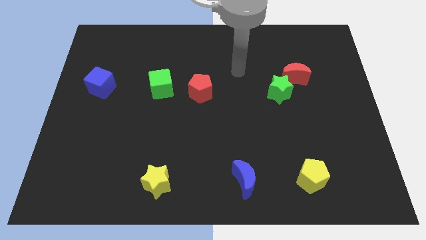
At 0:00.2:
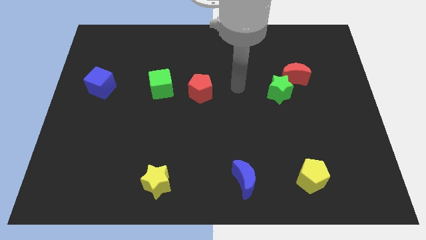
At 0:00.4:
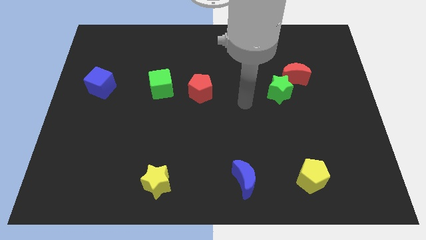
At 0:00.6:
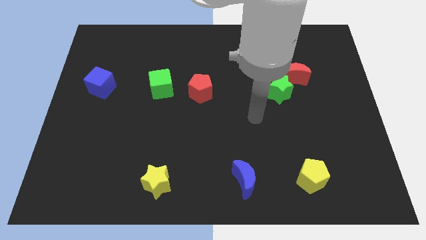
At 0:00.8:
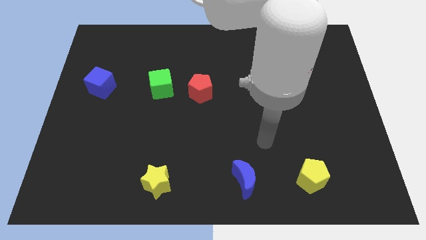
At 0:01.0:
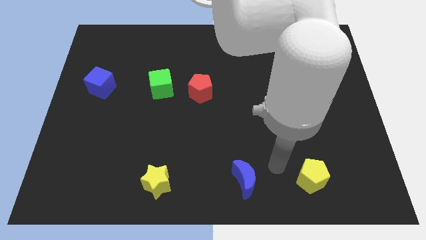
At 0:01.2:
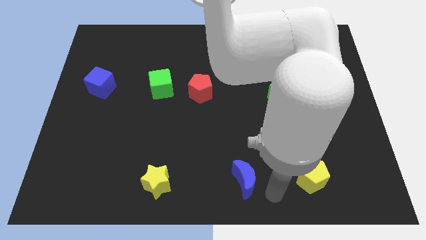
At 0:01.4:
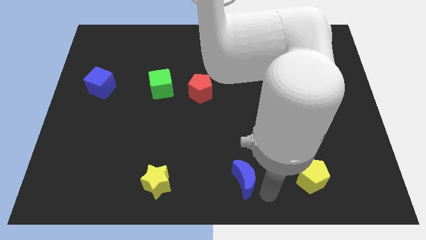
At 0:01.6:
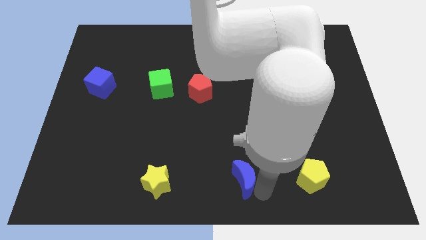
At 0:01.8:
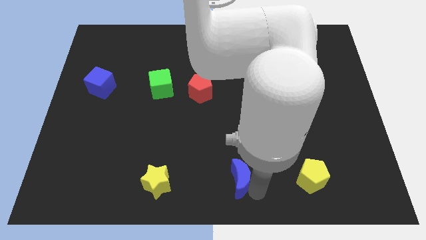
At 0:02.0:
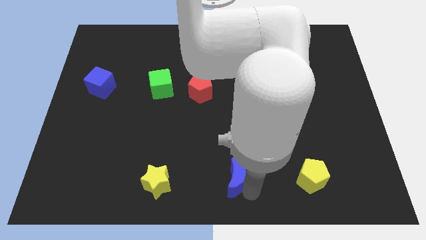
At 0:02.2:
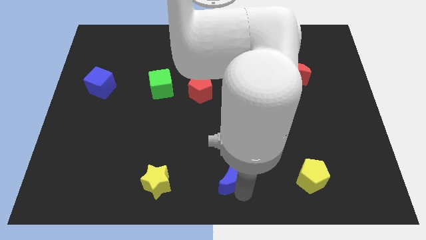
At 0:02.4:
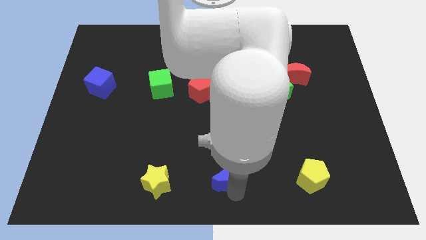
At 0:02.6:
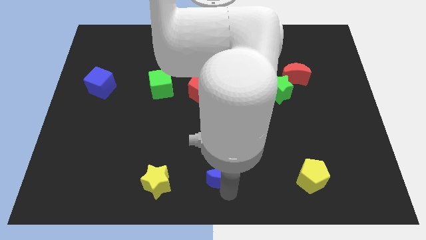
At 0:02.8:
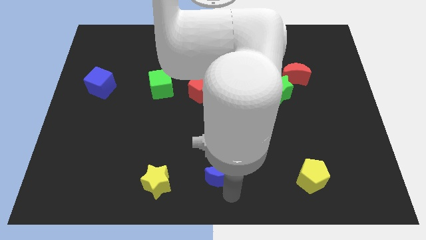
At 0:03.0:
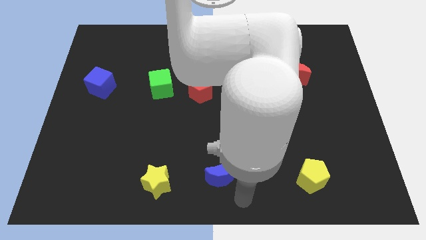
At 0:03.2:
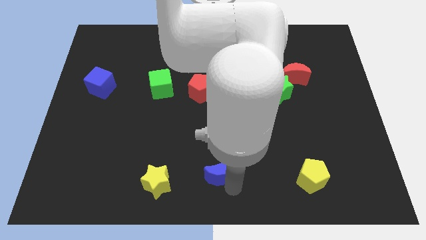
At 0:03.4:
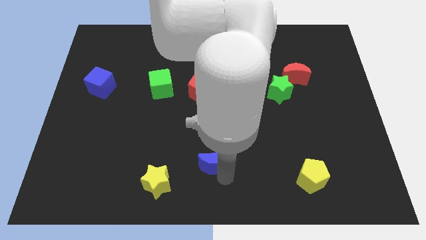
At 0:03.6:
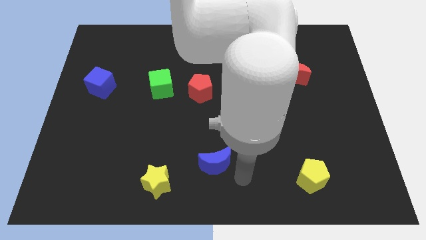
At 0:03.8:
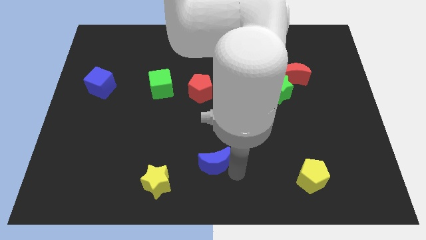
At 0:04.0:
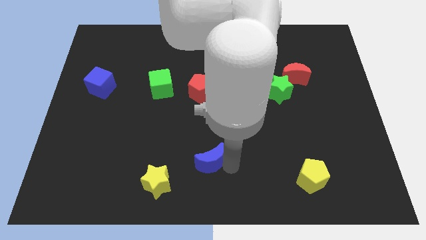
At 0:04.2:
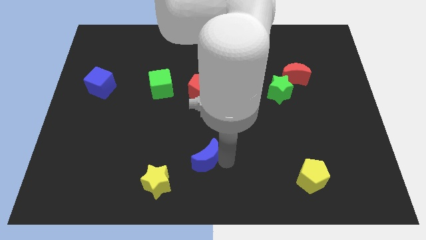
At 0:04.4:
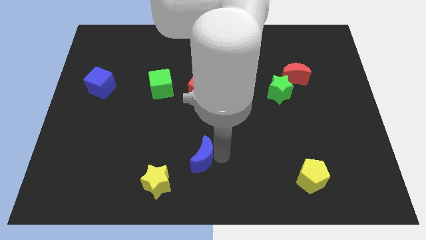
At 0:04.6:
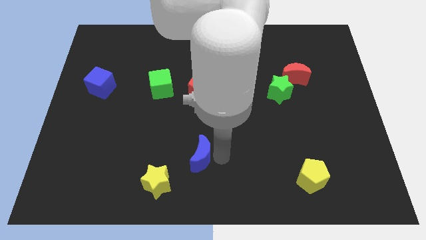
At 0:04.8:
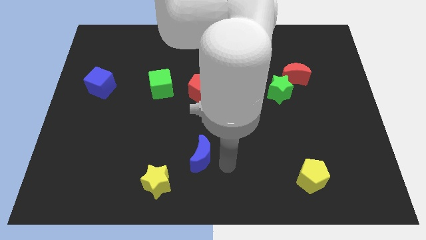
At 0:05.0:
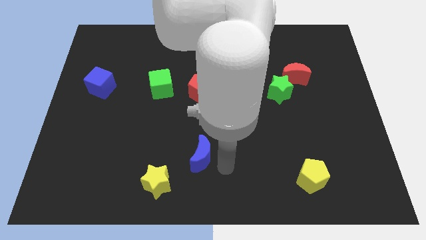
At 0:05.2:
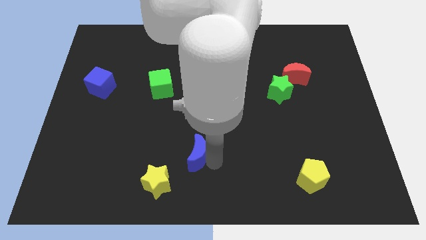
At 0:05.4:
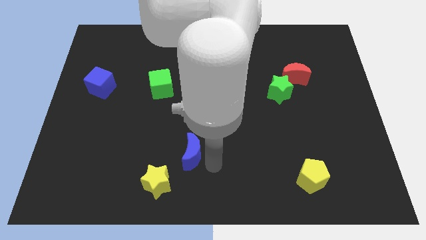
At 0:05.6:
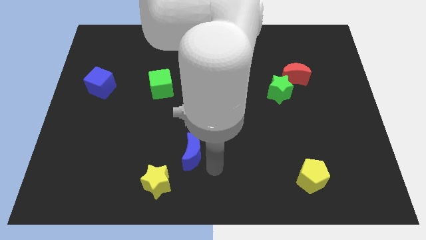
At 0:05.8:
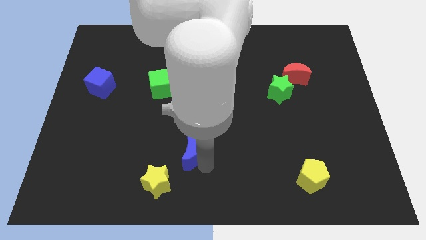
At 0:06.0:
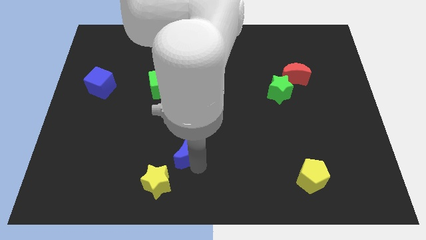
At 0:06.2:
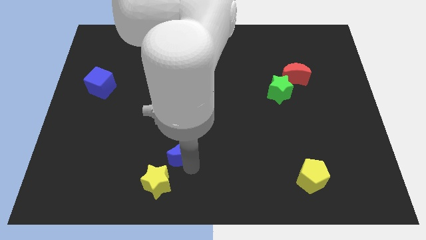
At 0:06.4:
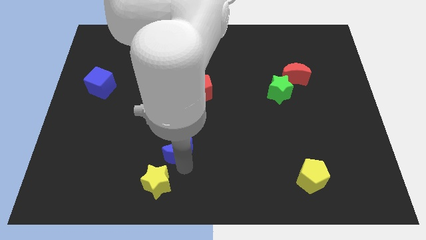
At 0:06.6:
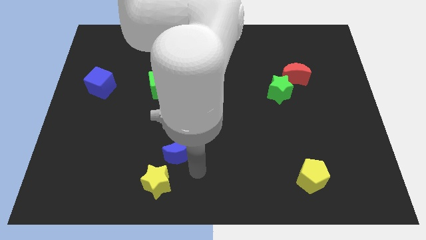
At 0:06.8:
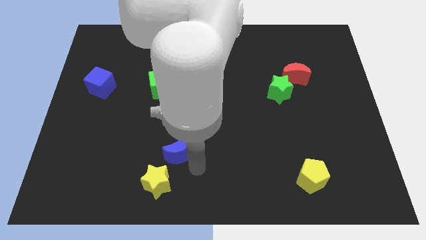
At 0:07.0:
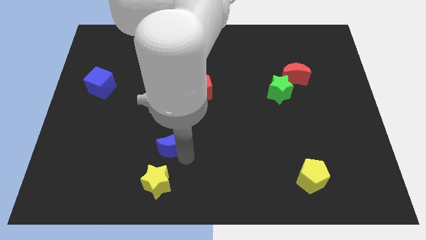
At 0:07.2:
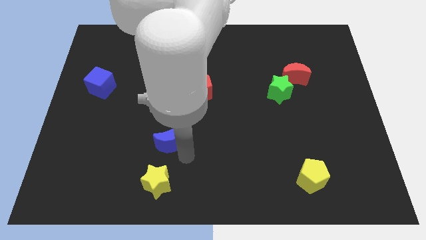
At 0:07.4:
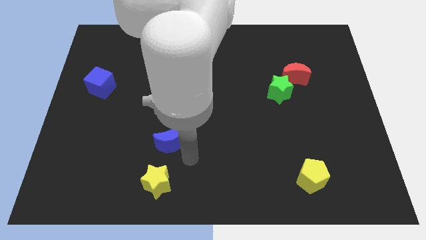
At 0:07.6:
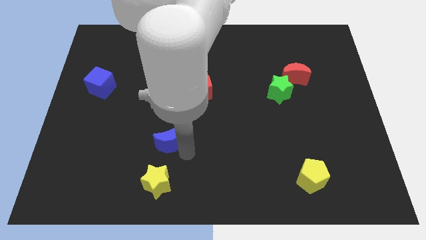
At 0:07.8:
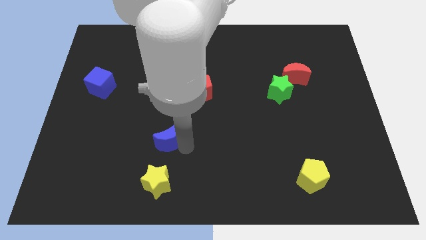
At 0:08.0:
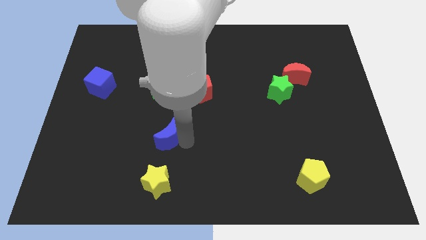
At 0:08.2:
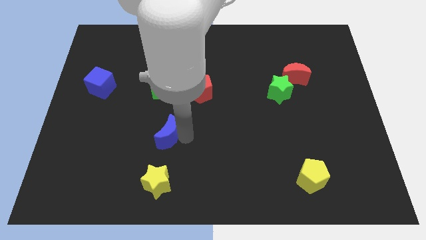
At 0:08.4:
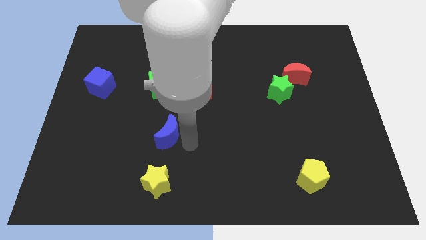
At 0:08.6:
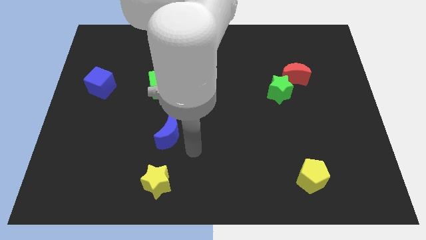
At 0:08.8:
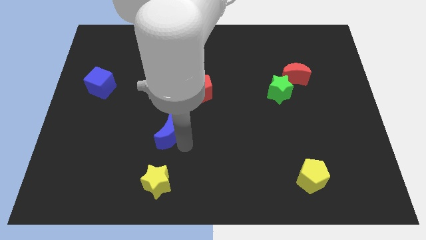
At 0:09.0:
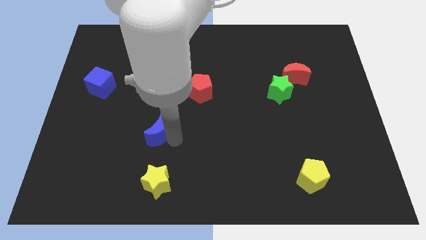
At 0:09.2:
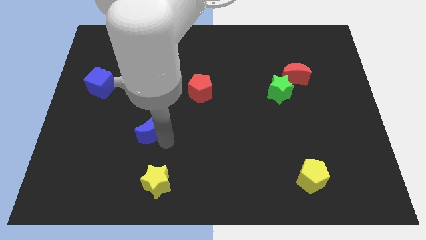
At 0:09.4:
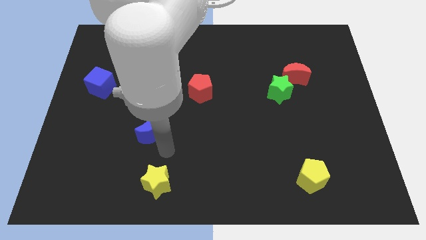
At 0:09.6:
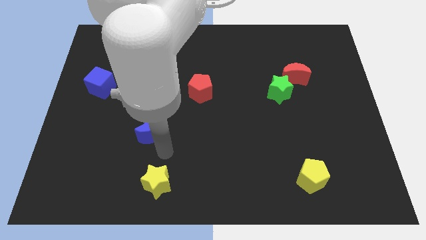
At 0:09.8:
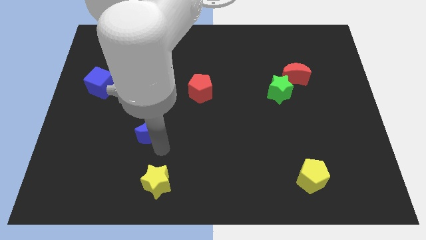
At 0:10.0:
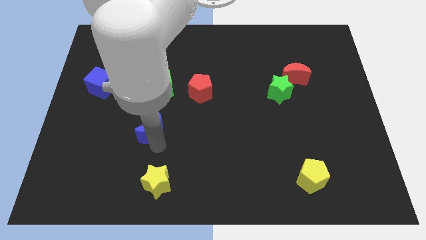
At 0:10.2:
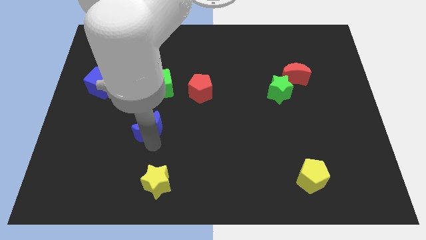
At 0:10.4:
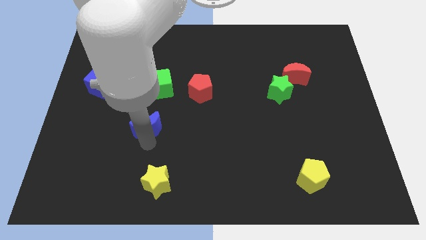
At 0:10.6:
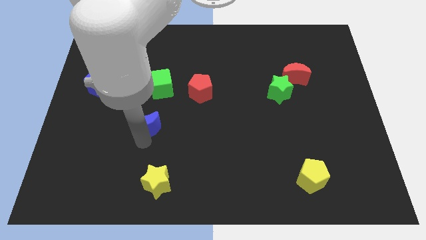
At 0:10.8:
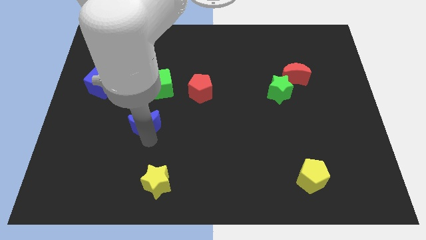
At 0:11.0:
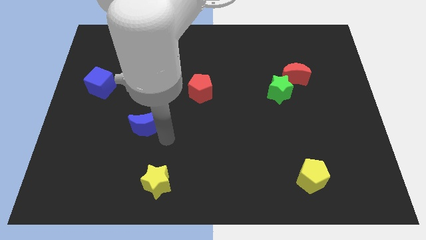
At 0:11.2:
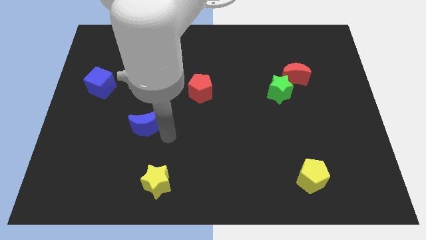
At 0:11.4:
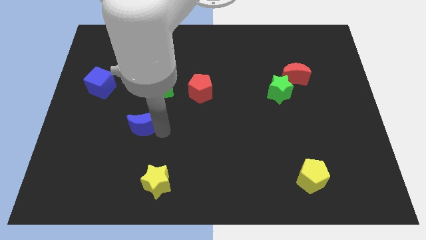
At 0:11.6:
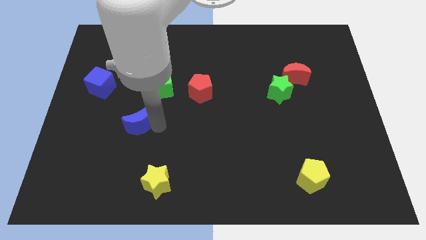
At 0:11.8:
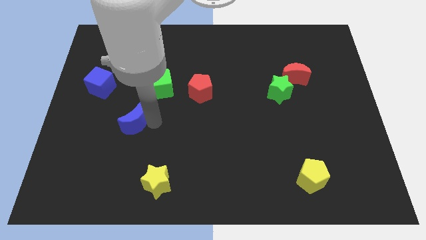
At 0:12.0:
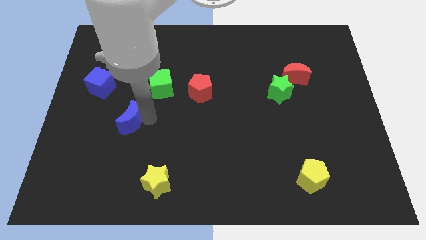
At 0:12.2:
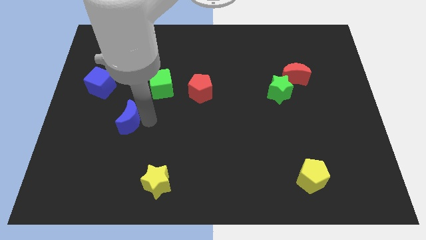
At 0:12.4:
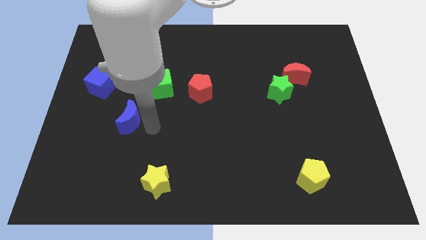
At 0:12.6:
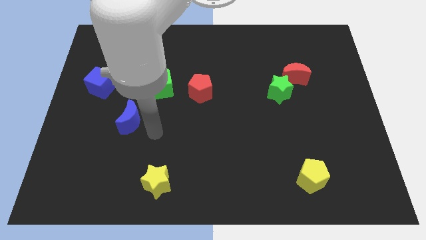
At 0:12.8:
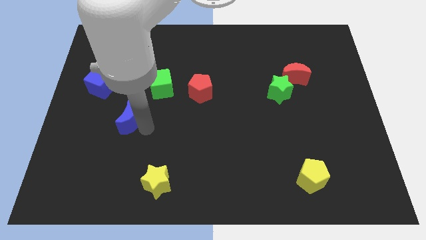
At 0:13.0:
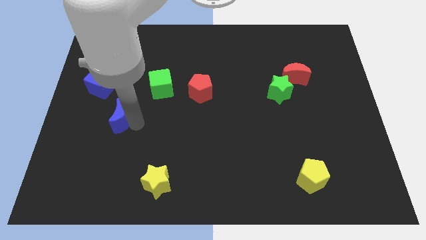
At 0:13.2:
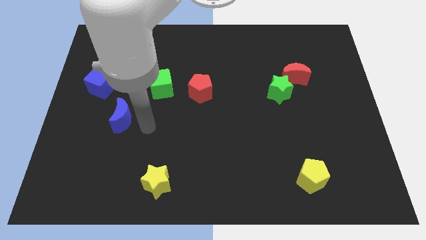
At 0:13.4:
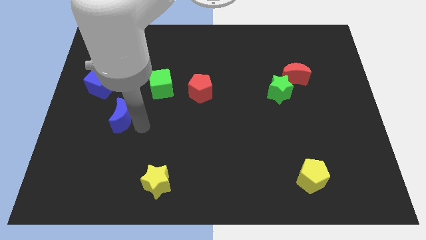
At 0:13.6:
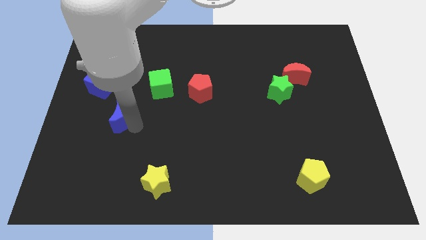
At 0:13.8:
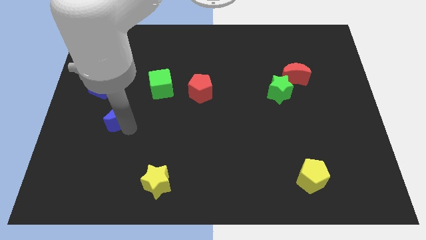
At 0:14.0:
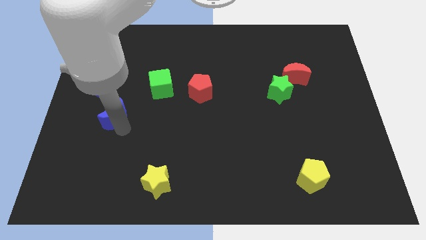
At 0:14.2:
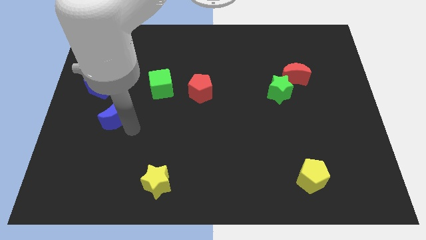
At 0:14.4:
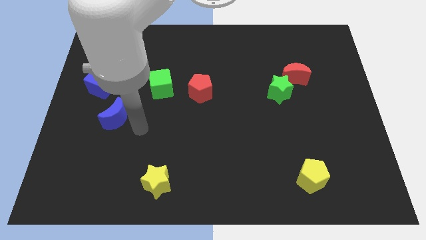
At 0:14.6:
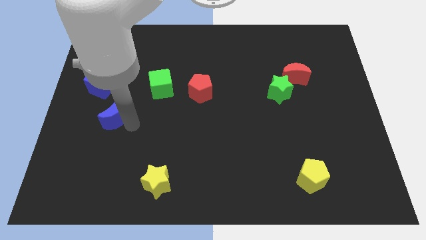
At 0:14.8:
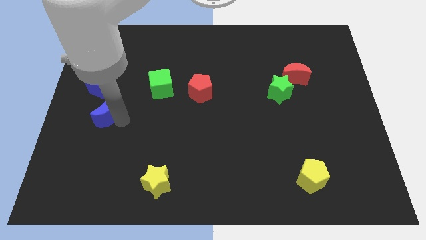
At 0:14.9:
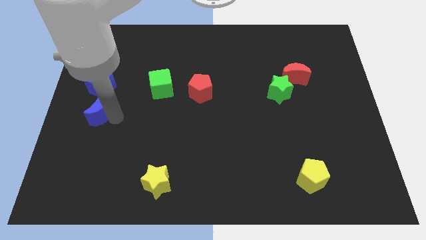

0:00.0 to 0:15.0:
slide the blue moon to the center left
